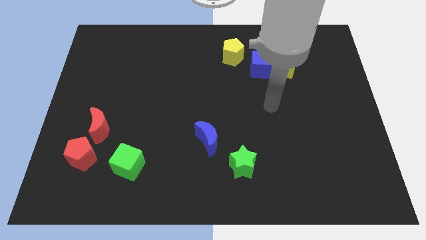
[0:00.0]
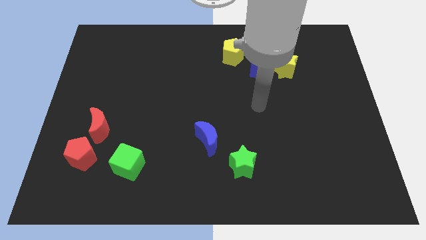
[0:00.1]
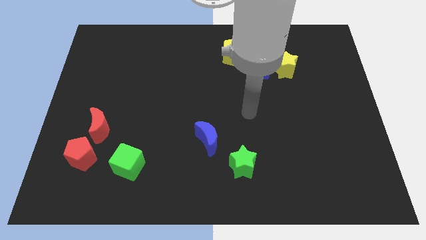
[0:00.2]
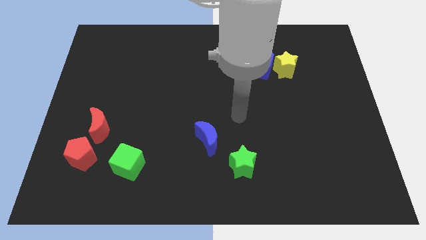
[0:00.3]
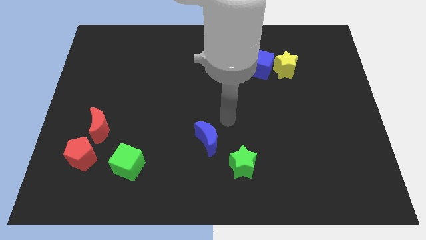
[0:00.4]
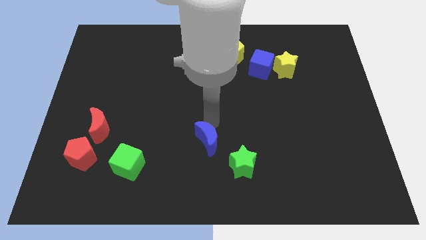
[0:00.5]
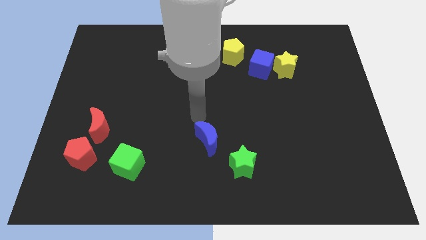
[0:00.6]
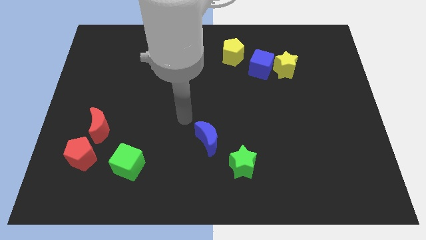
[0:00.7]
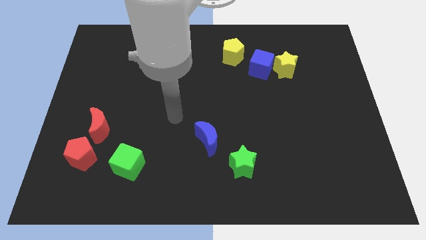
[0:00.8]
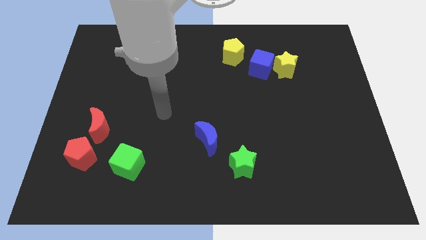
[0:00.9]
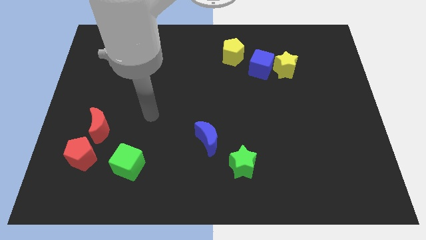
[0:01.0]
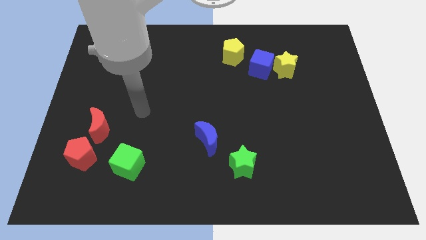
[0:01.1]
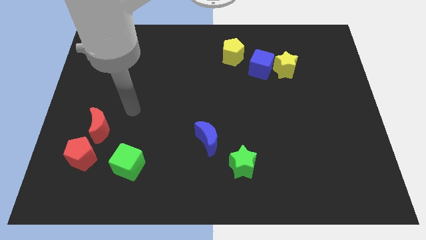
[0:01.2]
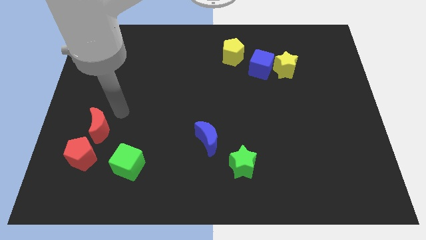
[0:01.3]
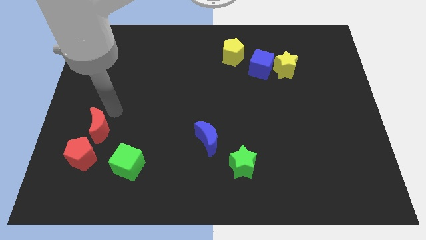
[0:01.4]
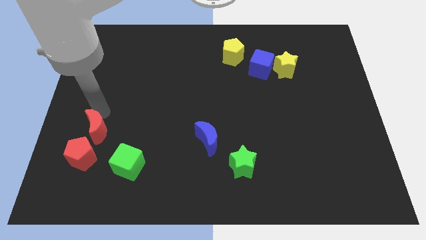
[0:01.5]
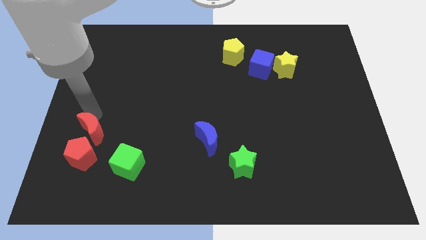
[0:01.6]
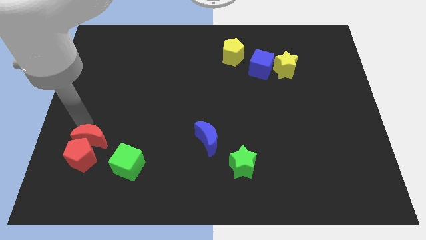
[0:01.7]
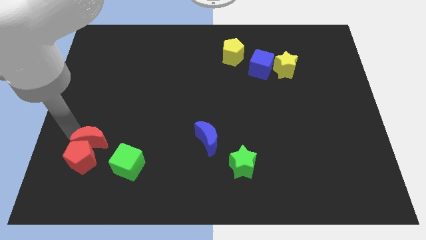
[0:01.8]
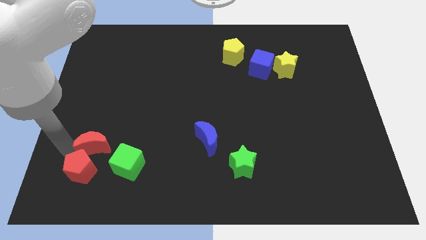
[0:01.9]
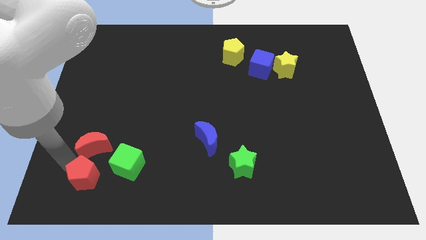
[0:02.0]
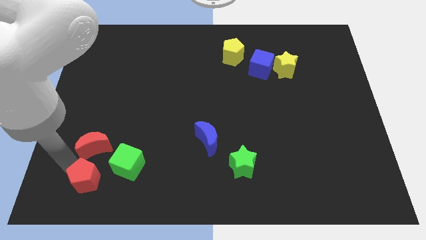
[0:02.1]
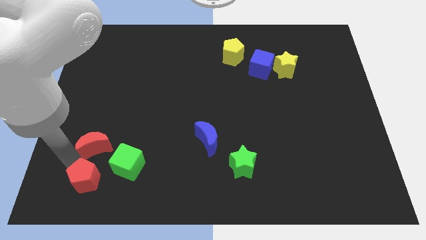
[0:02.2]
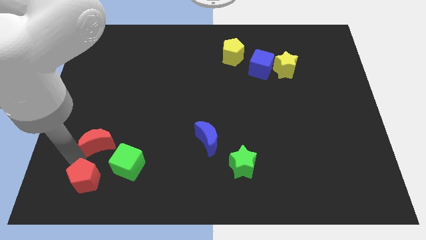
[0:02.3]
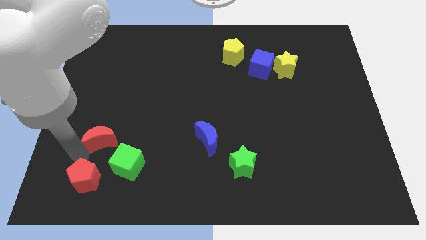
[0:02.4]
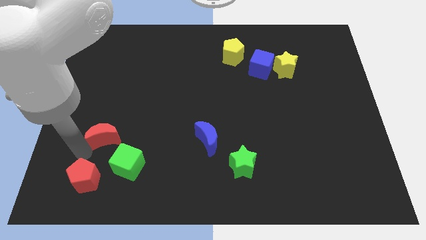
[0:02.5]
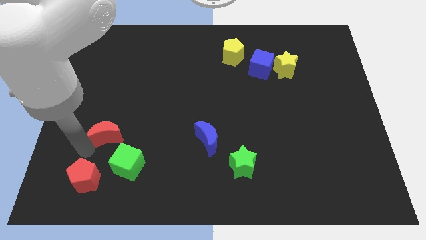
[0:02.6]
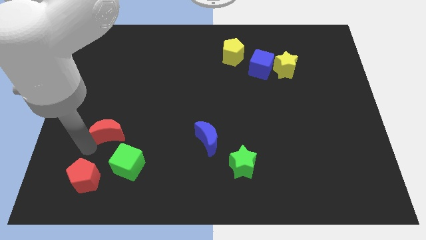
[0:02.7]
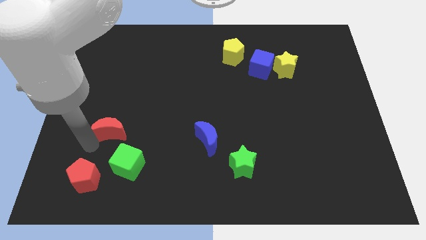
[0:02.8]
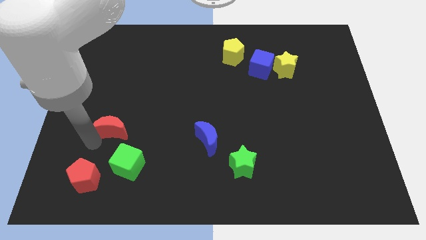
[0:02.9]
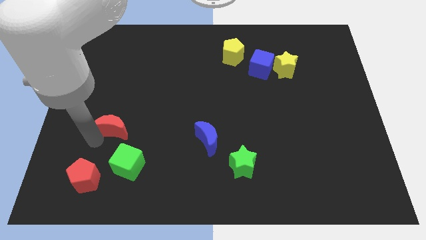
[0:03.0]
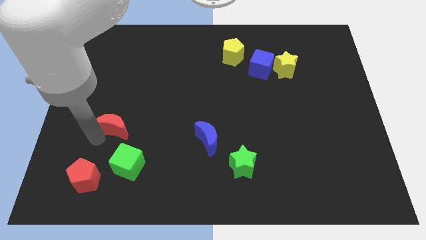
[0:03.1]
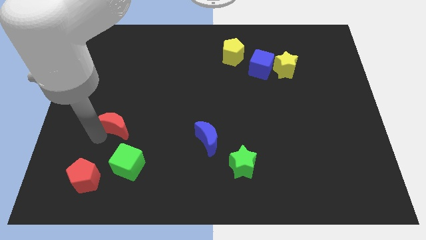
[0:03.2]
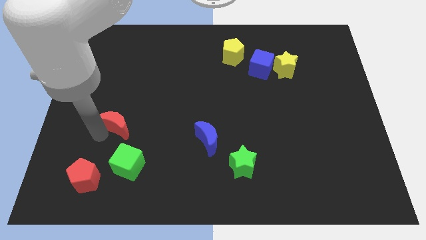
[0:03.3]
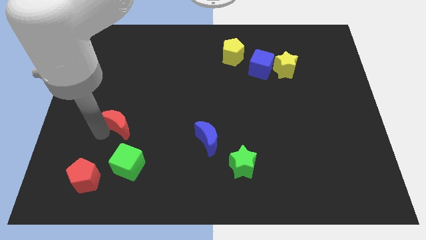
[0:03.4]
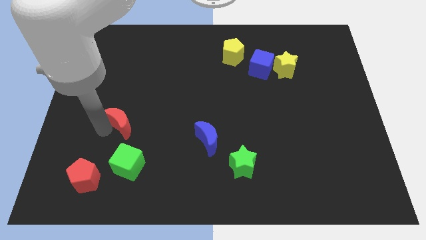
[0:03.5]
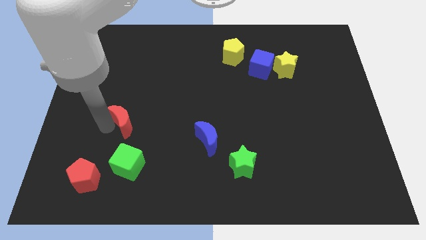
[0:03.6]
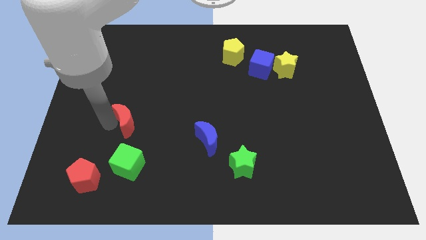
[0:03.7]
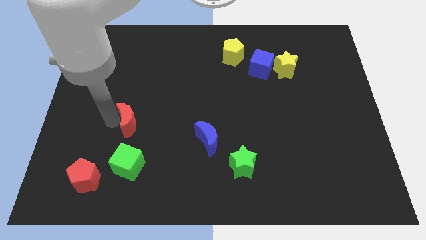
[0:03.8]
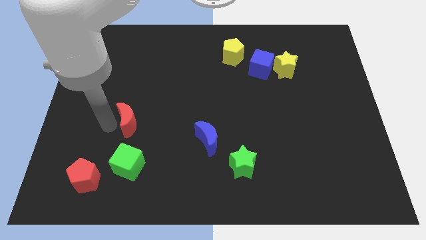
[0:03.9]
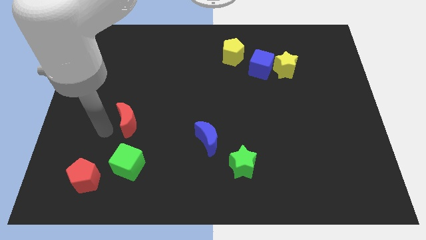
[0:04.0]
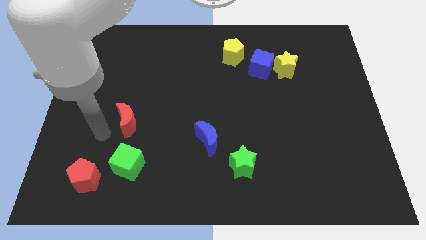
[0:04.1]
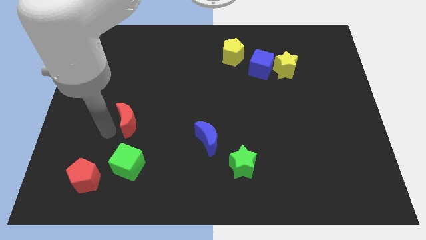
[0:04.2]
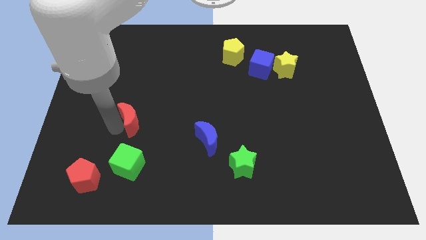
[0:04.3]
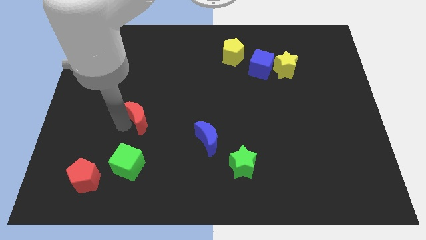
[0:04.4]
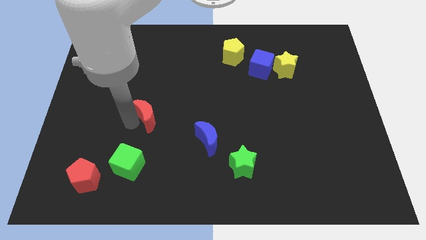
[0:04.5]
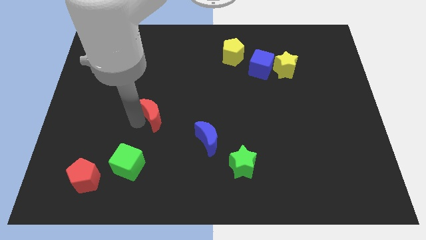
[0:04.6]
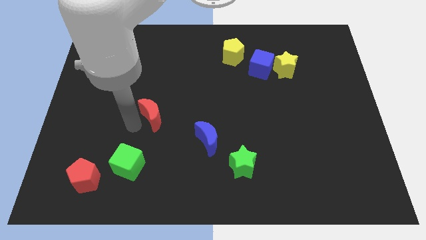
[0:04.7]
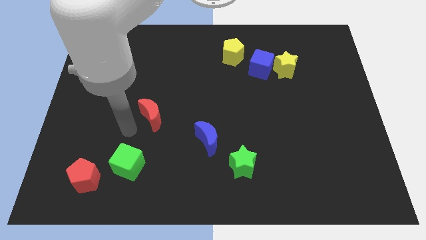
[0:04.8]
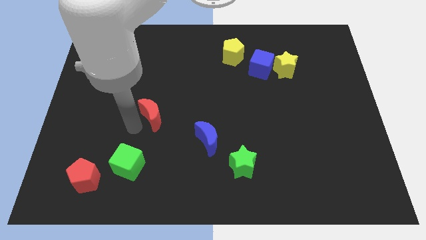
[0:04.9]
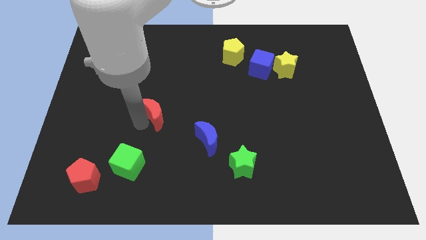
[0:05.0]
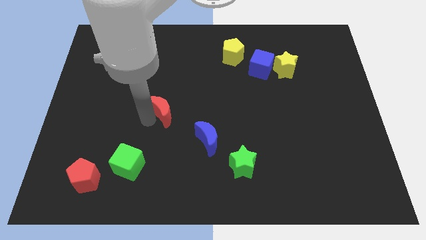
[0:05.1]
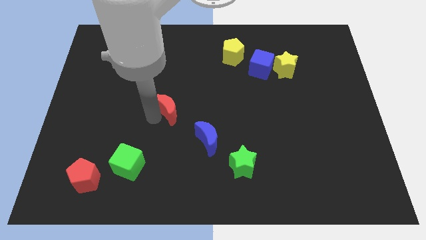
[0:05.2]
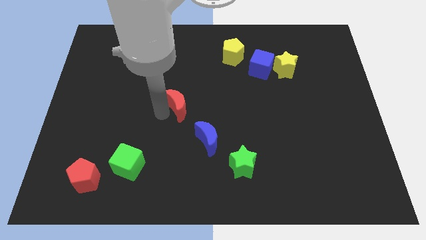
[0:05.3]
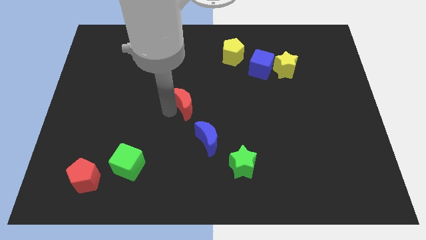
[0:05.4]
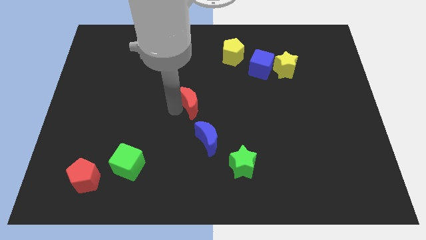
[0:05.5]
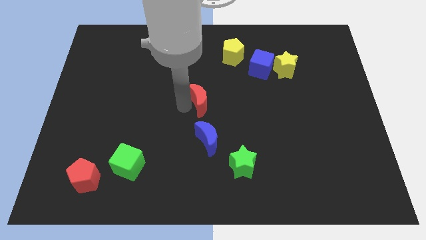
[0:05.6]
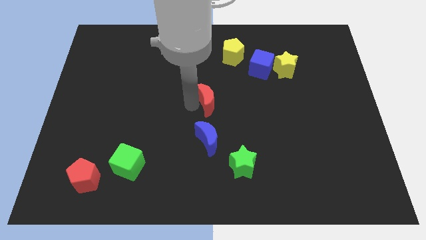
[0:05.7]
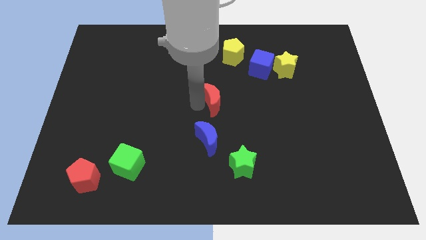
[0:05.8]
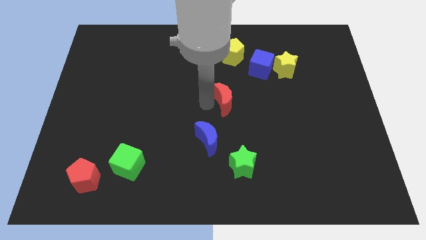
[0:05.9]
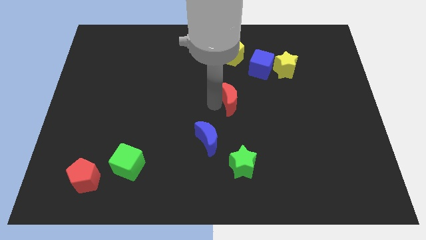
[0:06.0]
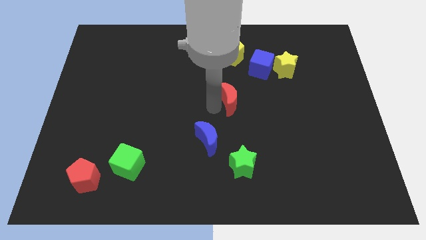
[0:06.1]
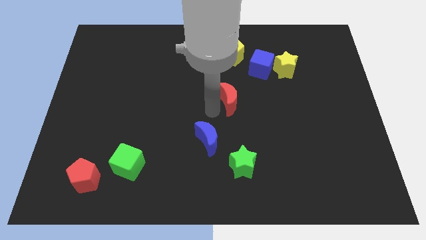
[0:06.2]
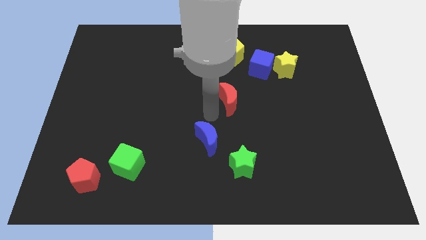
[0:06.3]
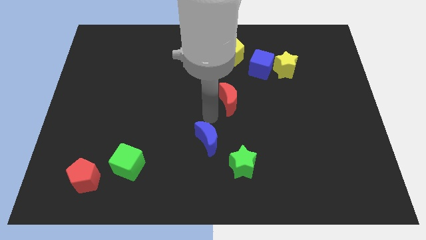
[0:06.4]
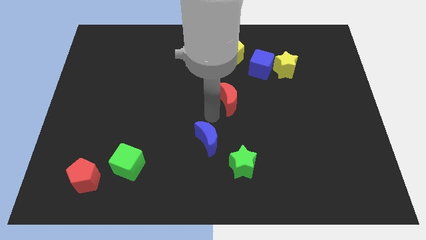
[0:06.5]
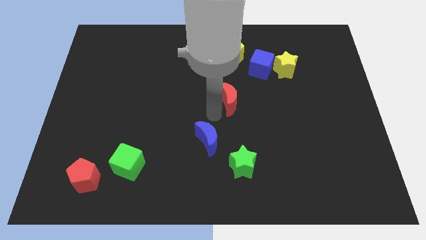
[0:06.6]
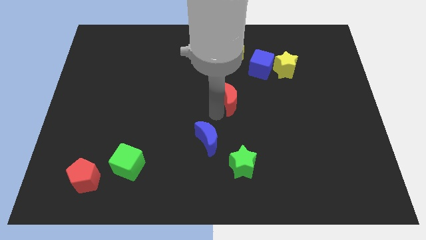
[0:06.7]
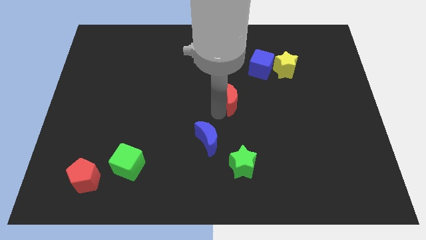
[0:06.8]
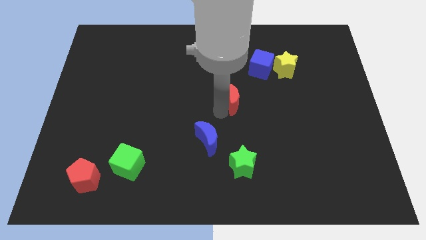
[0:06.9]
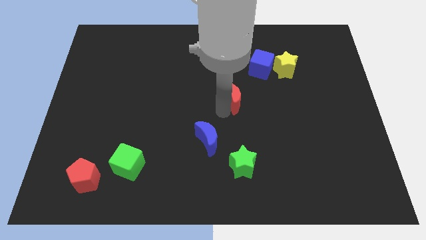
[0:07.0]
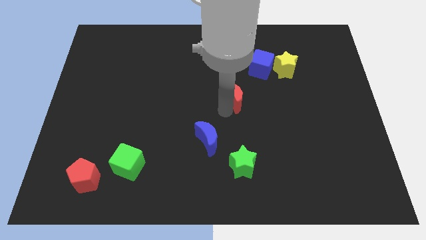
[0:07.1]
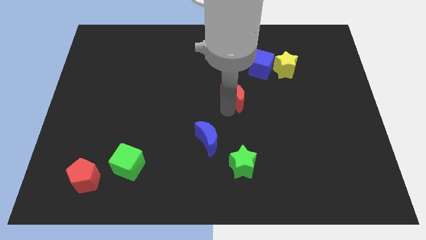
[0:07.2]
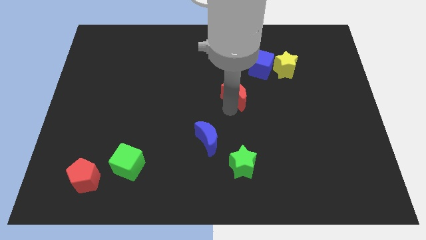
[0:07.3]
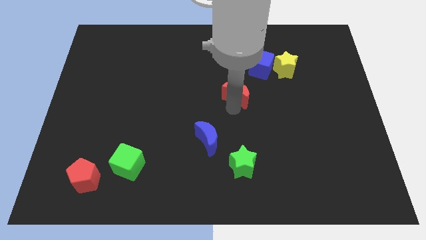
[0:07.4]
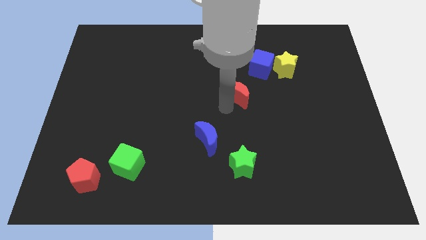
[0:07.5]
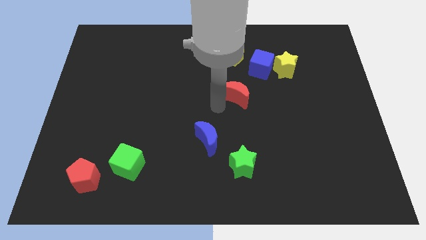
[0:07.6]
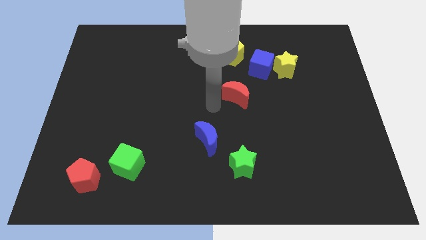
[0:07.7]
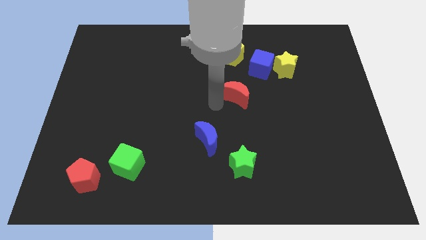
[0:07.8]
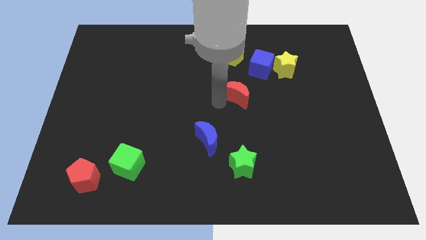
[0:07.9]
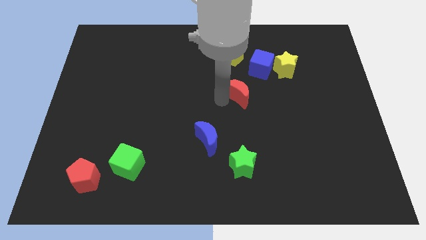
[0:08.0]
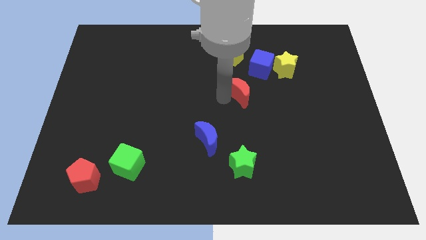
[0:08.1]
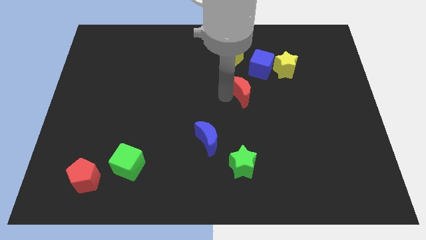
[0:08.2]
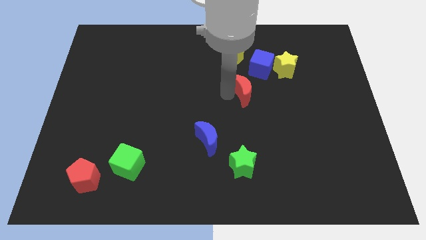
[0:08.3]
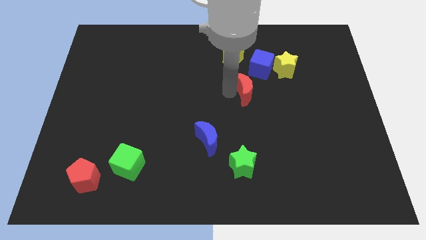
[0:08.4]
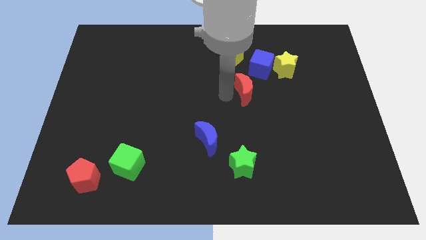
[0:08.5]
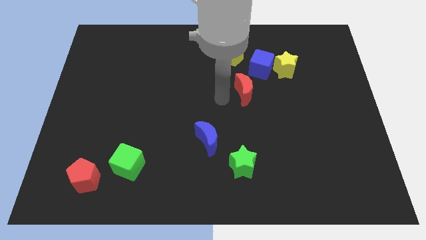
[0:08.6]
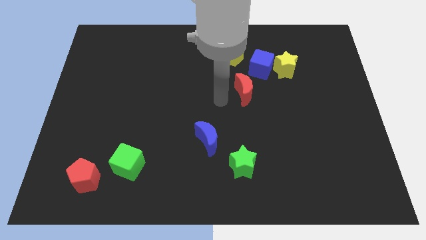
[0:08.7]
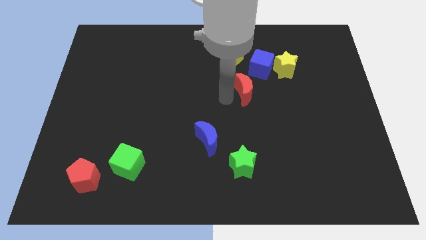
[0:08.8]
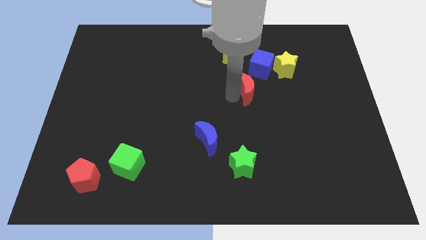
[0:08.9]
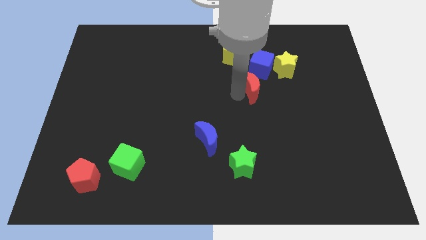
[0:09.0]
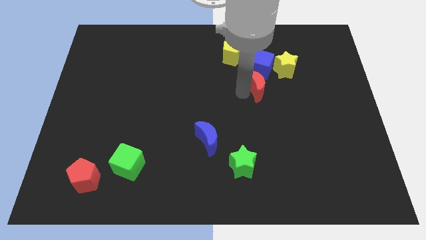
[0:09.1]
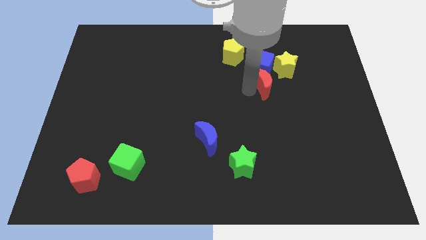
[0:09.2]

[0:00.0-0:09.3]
move the red moon to the bottom right side of the blue cube
